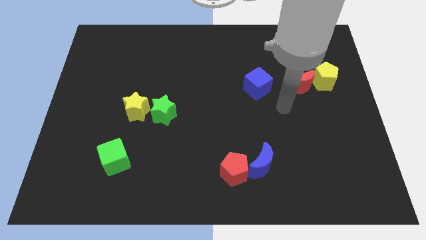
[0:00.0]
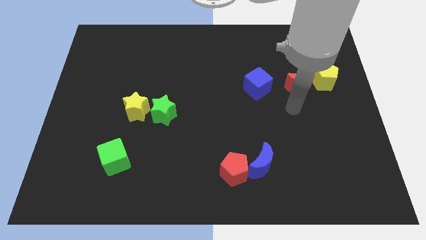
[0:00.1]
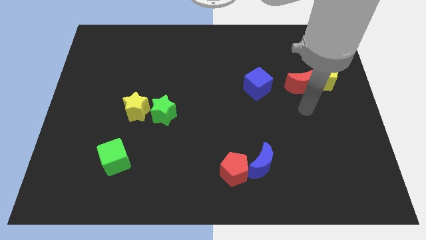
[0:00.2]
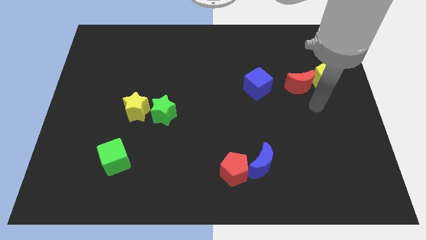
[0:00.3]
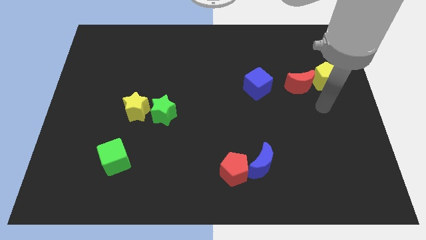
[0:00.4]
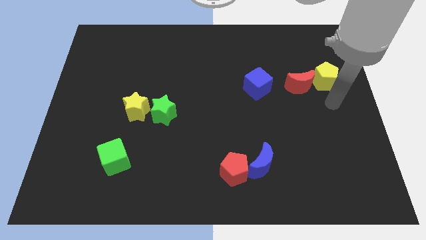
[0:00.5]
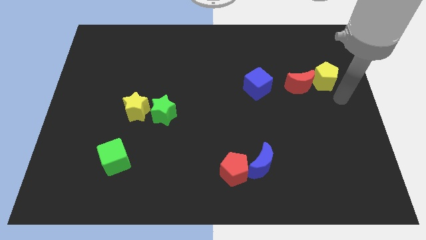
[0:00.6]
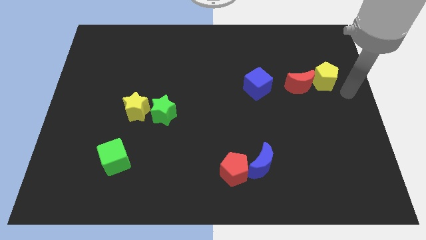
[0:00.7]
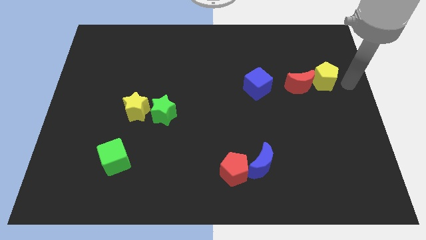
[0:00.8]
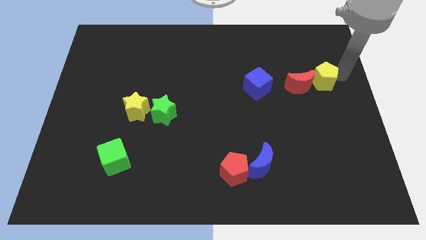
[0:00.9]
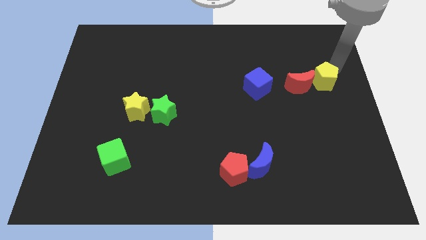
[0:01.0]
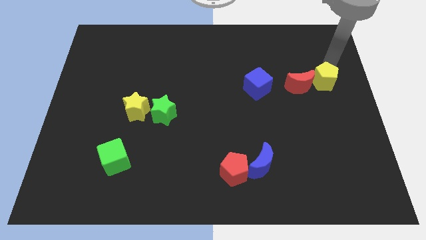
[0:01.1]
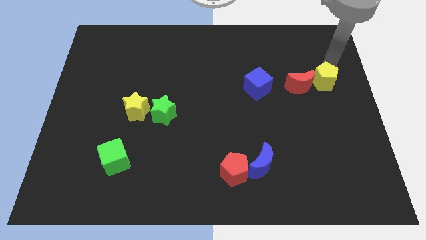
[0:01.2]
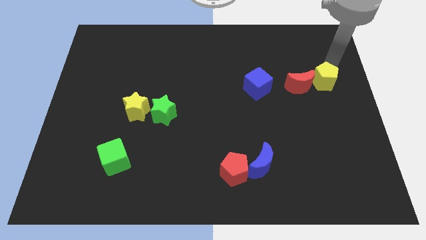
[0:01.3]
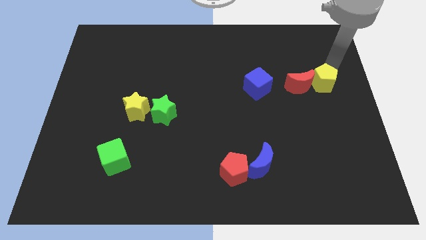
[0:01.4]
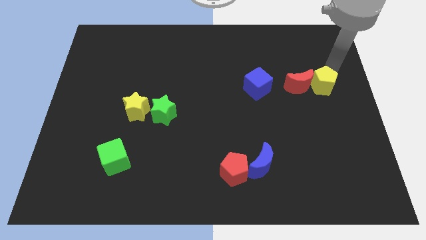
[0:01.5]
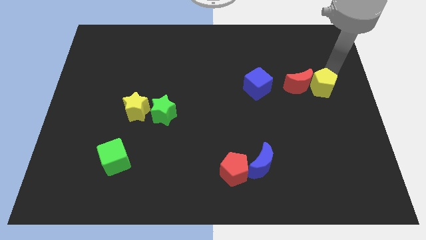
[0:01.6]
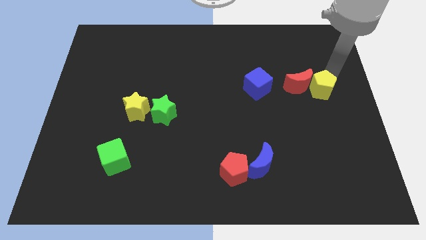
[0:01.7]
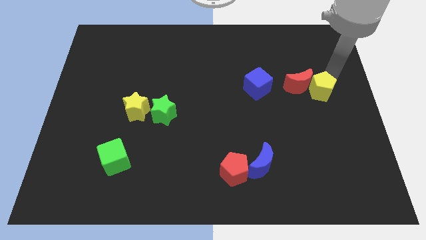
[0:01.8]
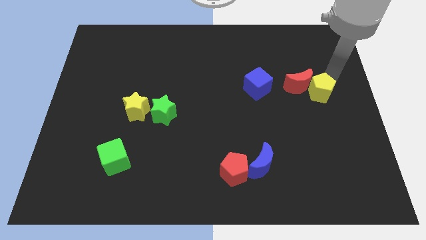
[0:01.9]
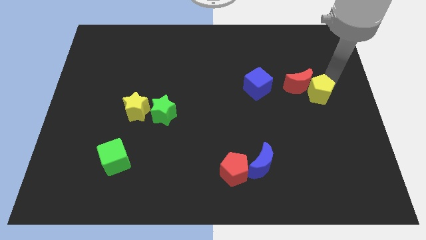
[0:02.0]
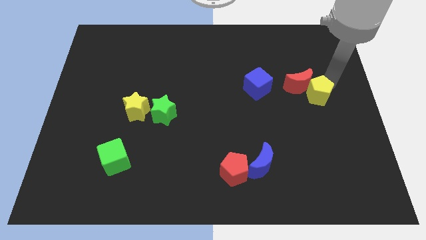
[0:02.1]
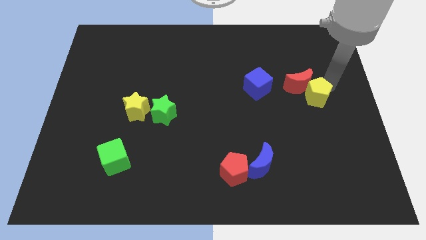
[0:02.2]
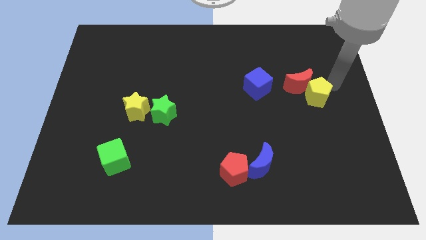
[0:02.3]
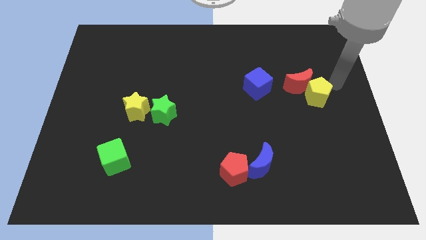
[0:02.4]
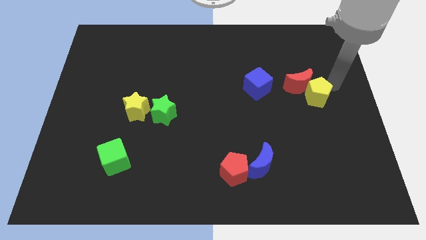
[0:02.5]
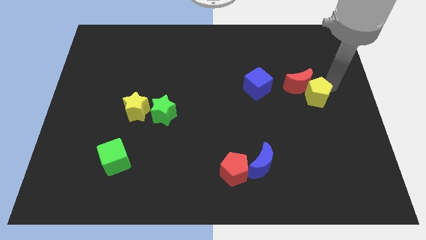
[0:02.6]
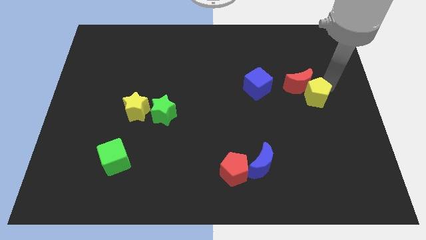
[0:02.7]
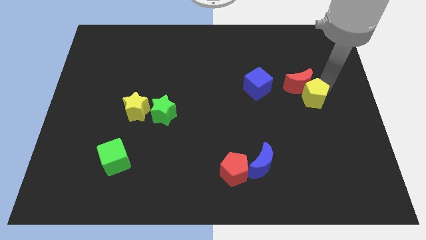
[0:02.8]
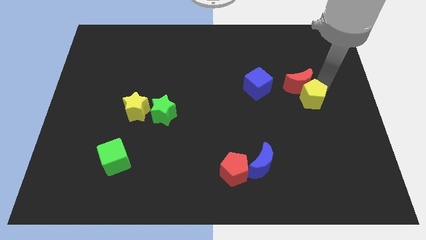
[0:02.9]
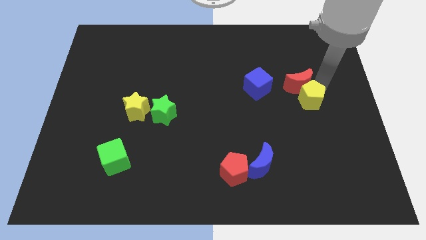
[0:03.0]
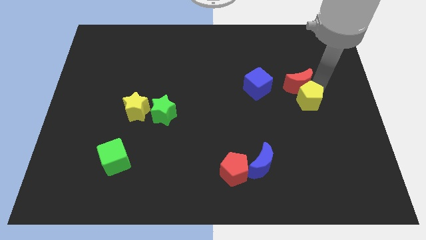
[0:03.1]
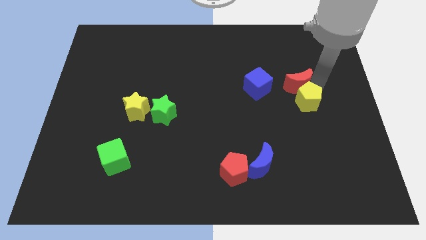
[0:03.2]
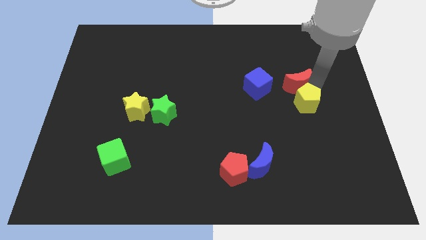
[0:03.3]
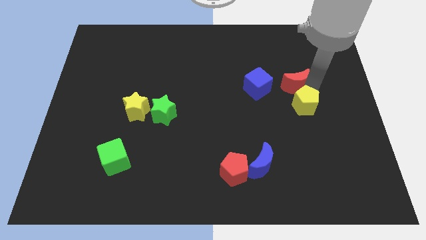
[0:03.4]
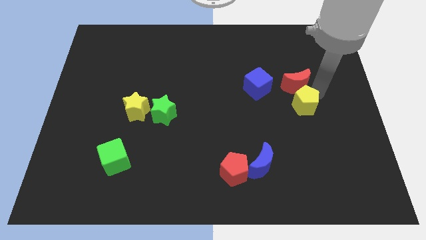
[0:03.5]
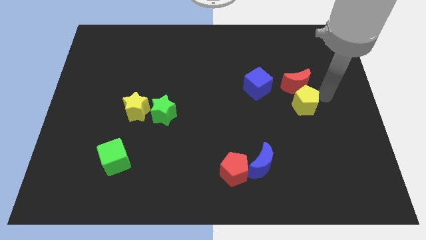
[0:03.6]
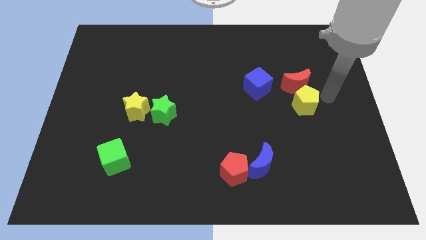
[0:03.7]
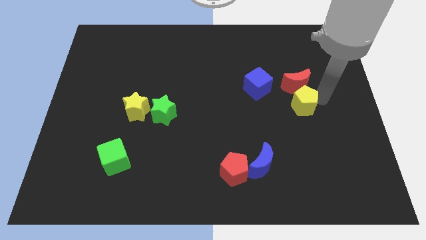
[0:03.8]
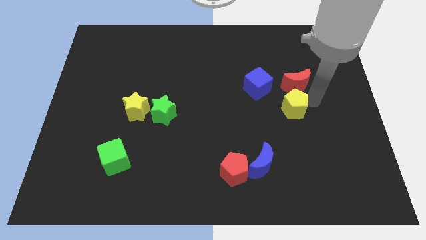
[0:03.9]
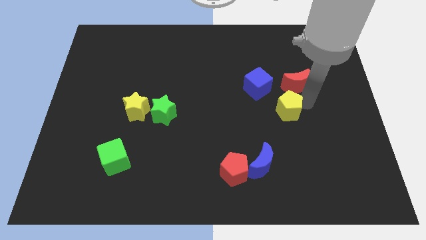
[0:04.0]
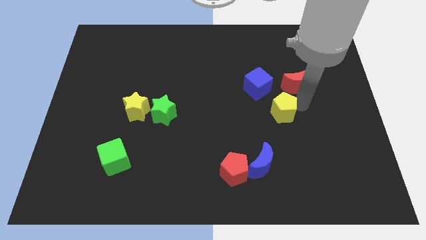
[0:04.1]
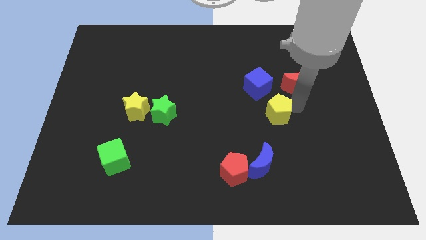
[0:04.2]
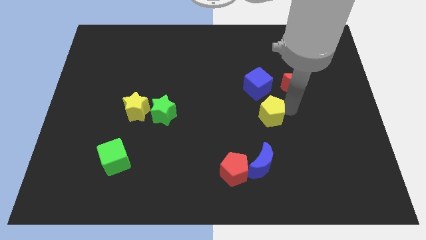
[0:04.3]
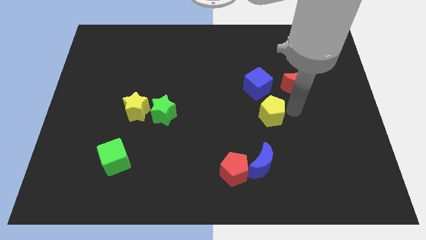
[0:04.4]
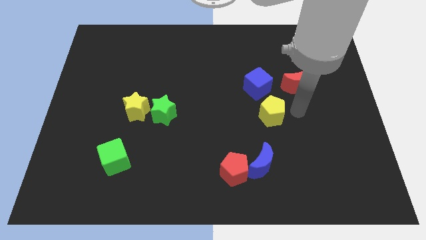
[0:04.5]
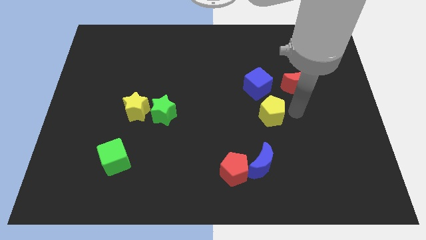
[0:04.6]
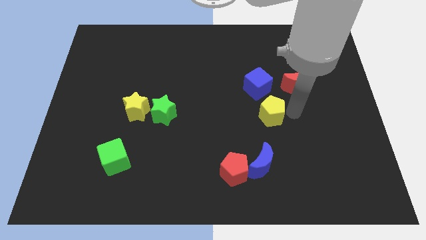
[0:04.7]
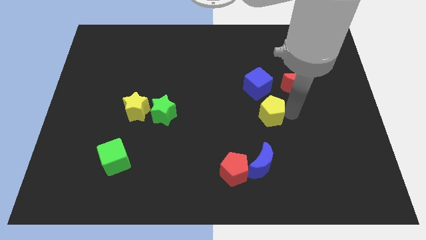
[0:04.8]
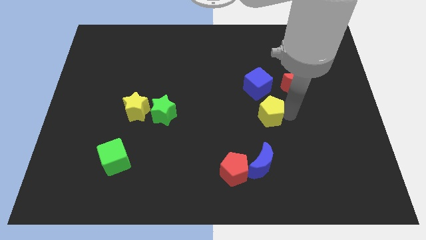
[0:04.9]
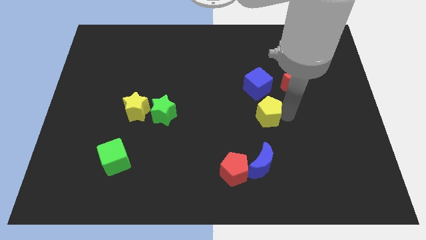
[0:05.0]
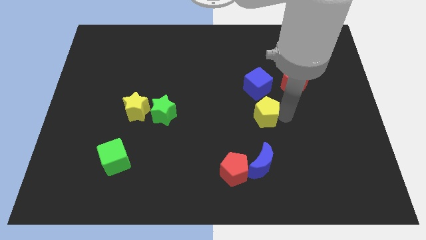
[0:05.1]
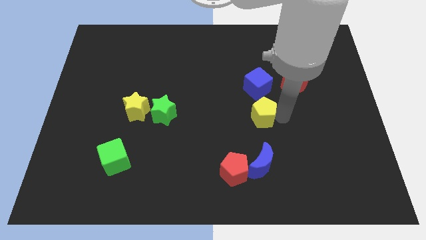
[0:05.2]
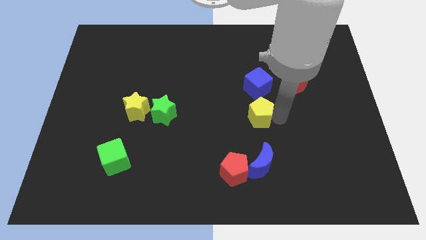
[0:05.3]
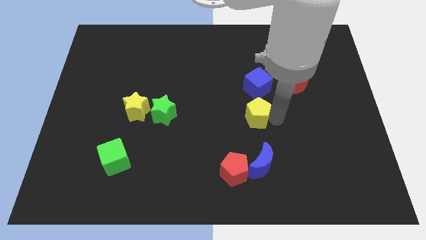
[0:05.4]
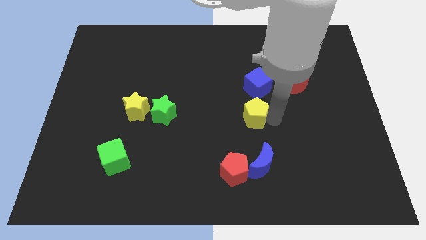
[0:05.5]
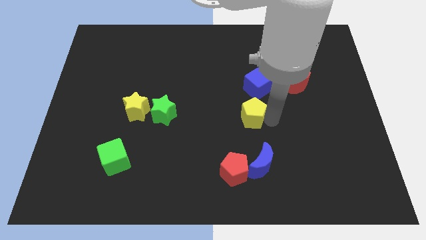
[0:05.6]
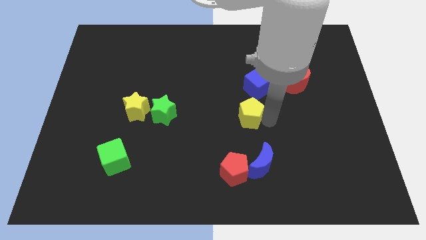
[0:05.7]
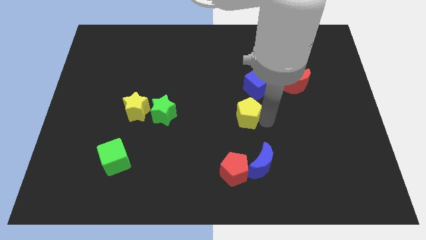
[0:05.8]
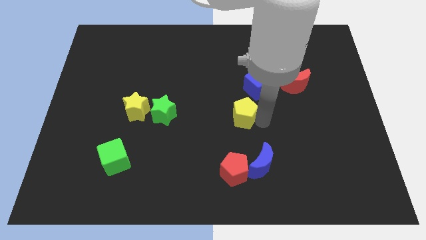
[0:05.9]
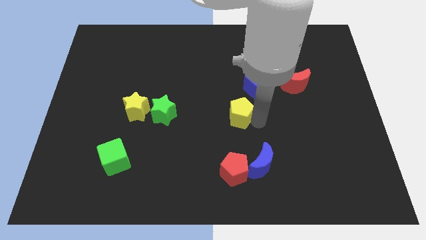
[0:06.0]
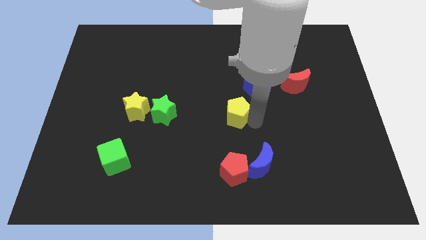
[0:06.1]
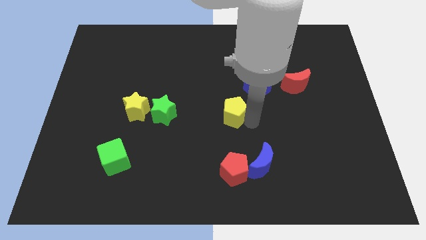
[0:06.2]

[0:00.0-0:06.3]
move the yellow pentagon right of the green star
